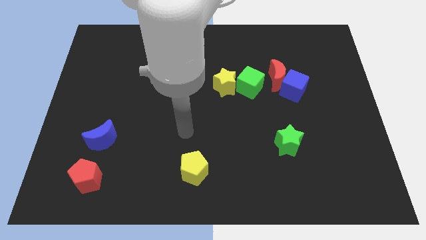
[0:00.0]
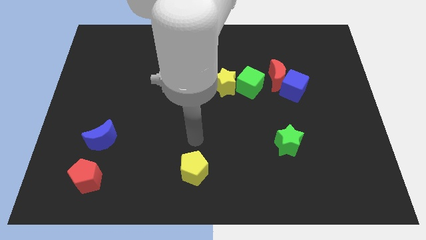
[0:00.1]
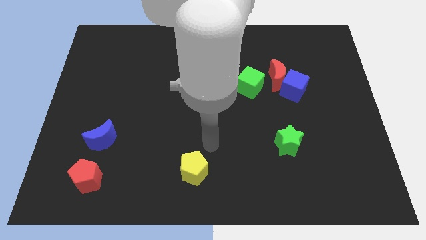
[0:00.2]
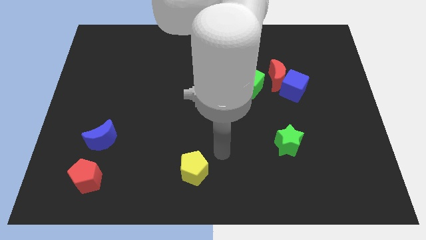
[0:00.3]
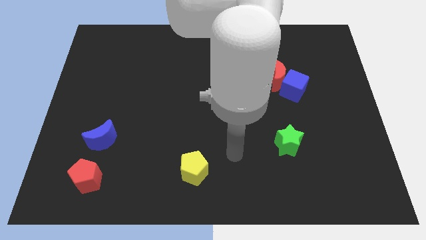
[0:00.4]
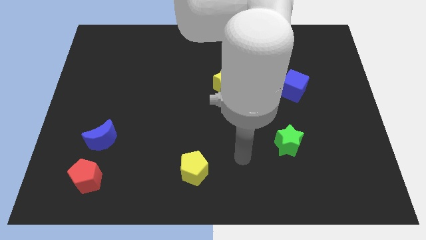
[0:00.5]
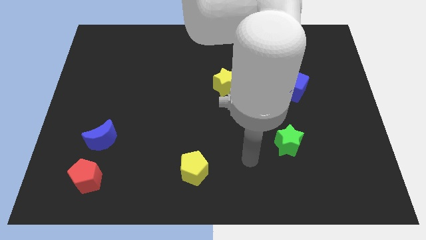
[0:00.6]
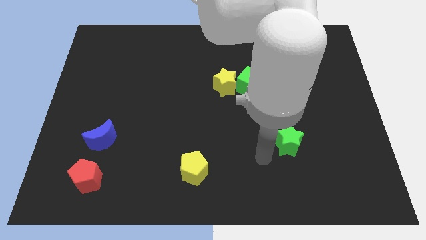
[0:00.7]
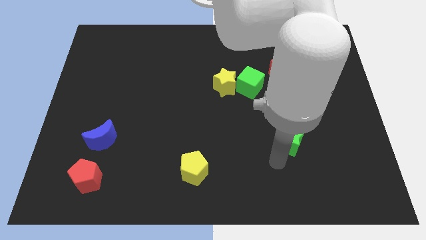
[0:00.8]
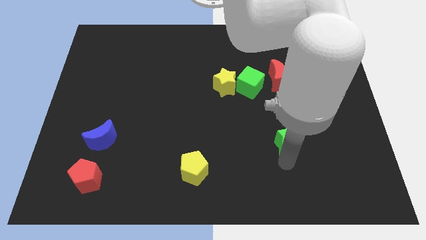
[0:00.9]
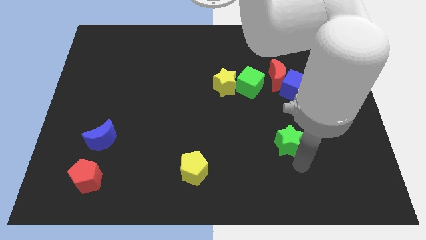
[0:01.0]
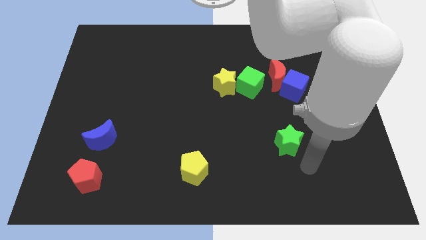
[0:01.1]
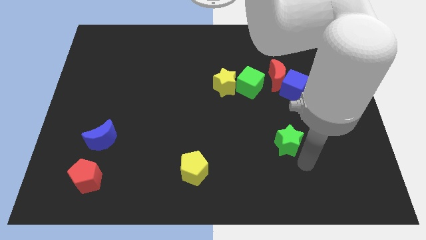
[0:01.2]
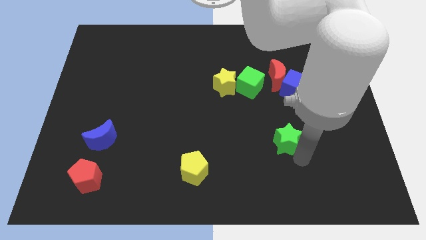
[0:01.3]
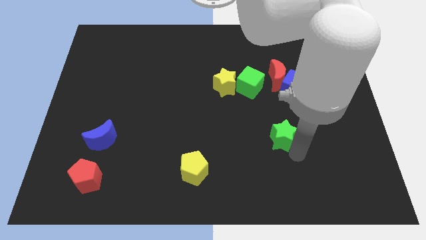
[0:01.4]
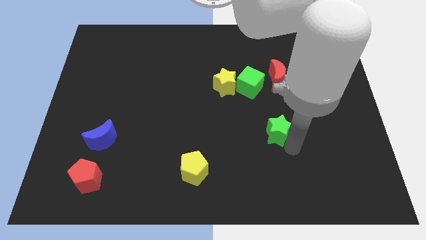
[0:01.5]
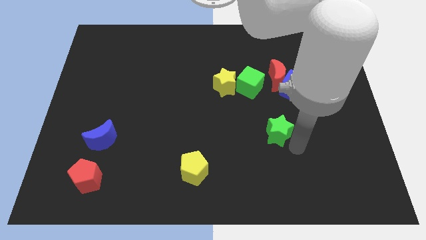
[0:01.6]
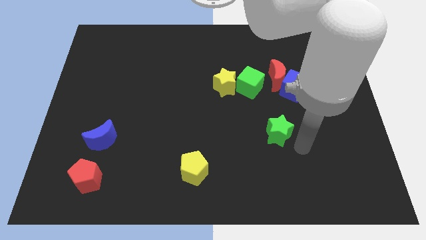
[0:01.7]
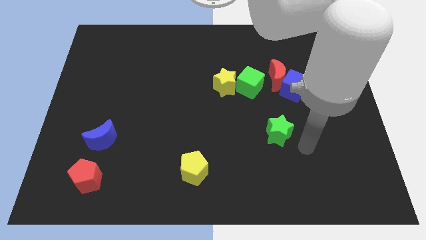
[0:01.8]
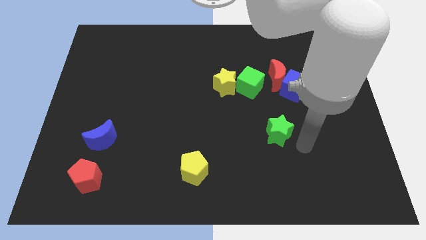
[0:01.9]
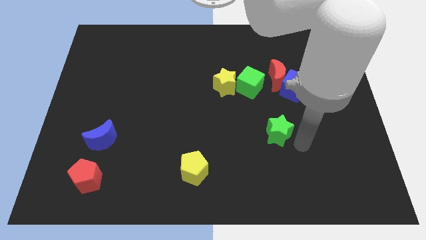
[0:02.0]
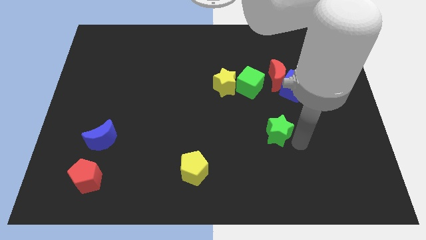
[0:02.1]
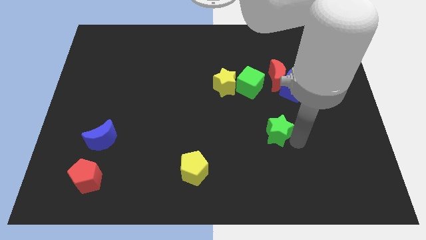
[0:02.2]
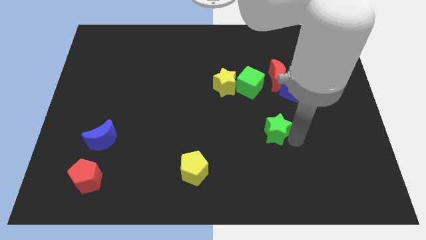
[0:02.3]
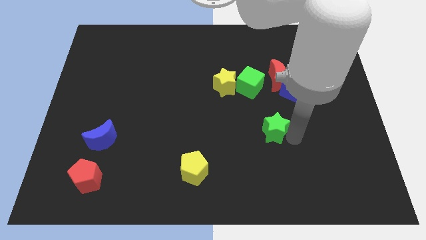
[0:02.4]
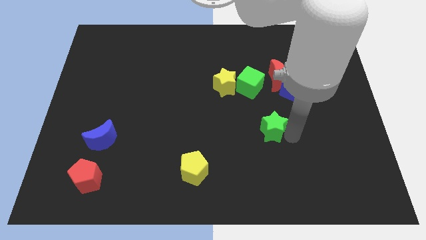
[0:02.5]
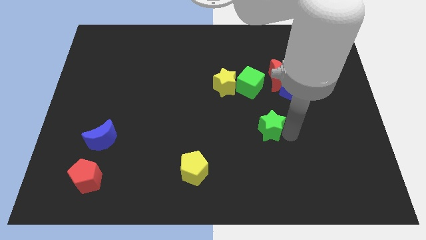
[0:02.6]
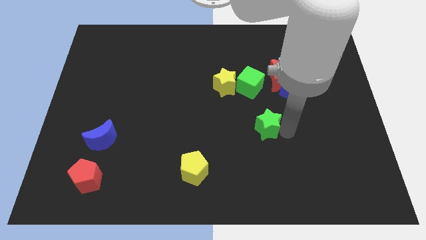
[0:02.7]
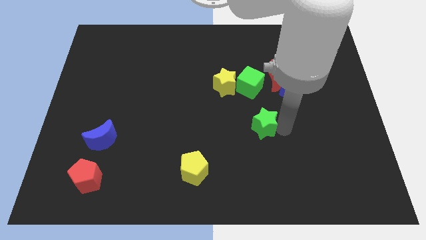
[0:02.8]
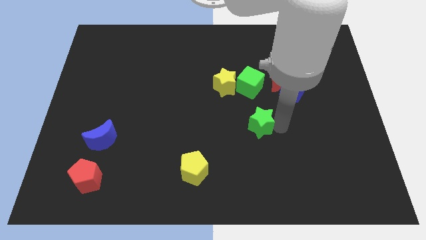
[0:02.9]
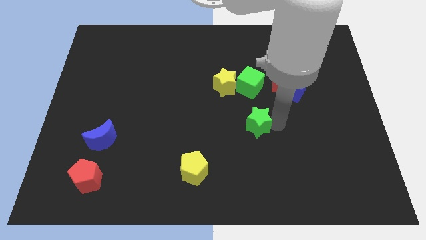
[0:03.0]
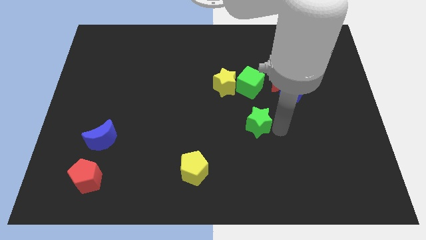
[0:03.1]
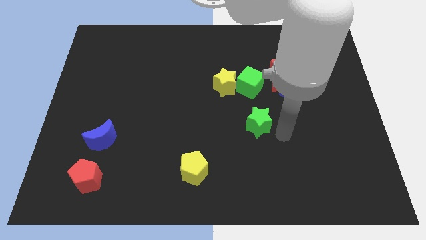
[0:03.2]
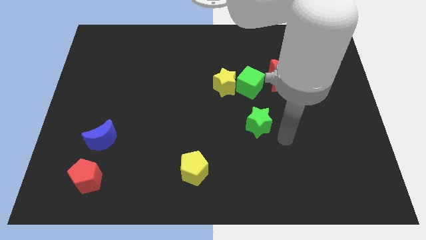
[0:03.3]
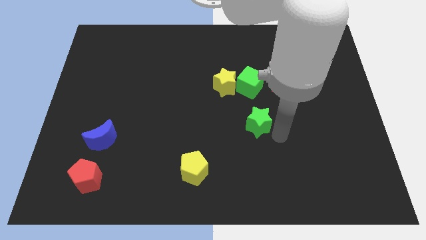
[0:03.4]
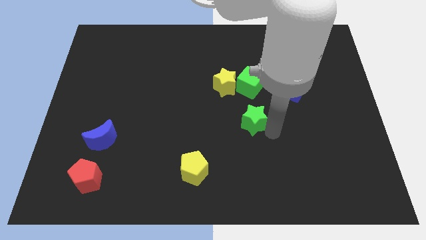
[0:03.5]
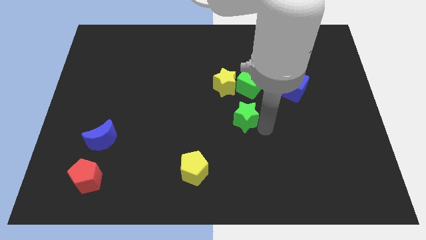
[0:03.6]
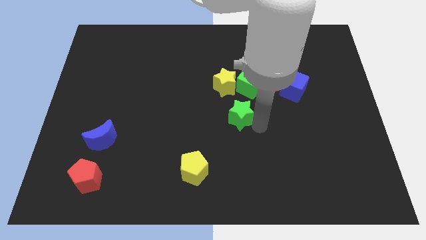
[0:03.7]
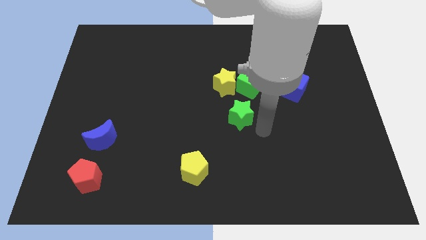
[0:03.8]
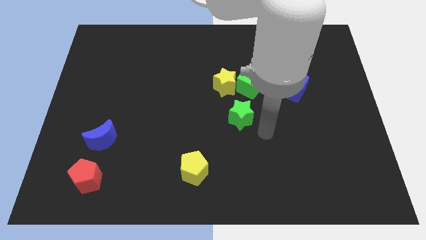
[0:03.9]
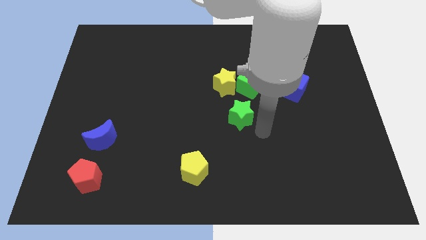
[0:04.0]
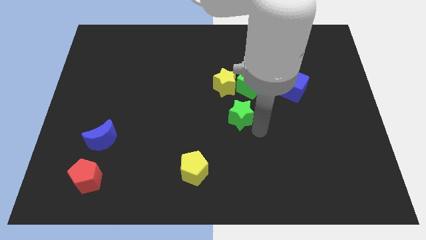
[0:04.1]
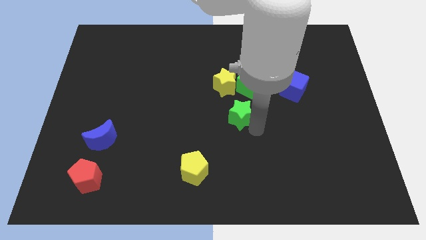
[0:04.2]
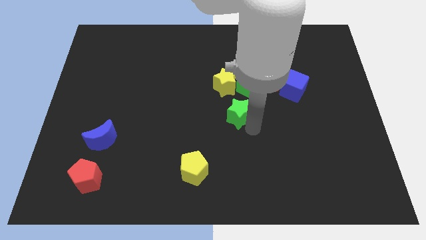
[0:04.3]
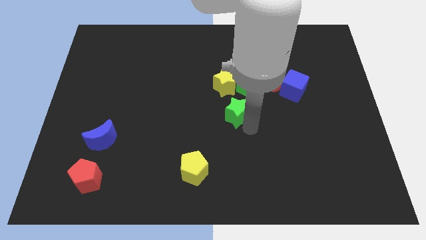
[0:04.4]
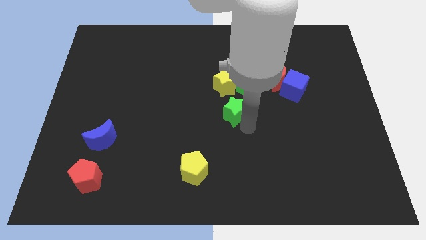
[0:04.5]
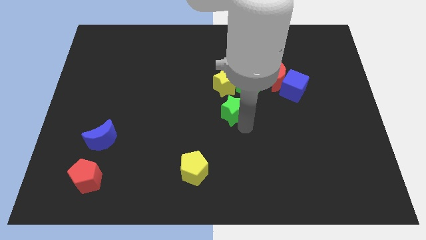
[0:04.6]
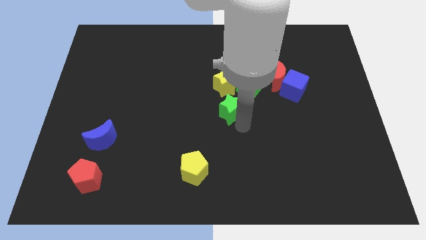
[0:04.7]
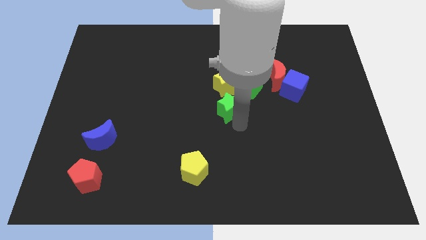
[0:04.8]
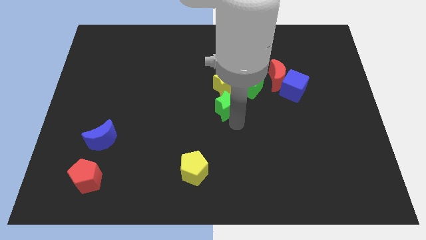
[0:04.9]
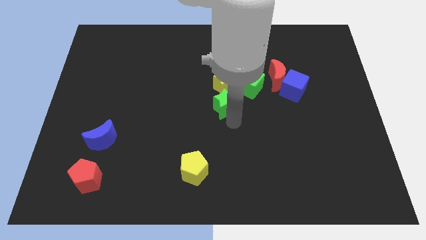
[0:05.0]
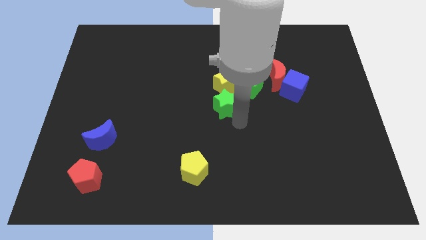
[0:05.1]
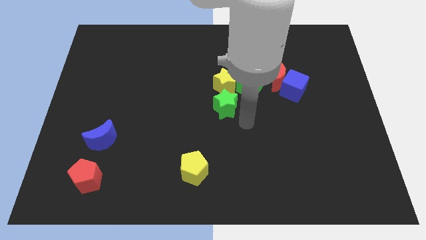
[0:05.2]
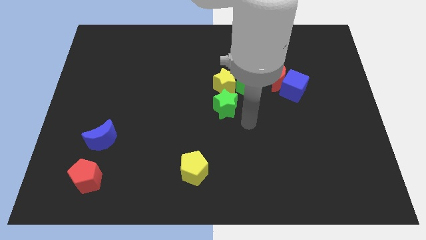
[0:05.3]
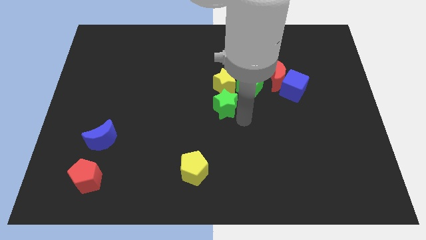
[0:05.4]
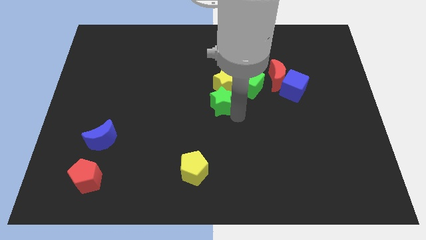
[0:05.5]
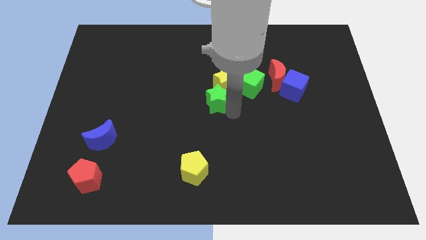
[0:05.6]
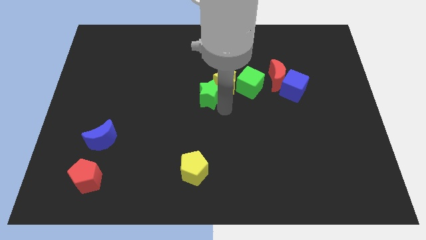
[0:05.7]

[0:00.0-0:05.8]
move the green star up and to the left

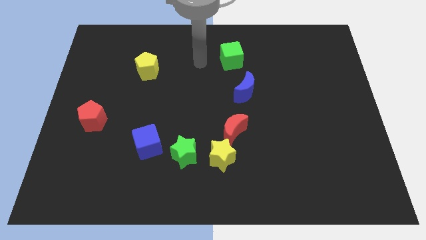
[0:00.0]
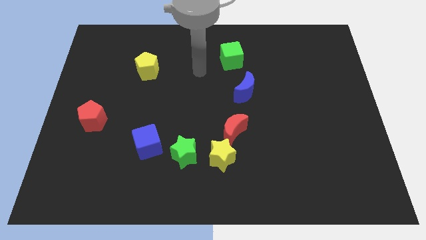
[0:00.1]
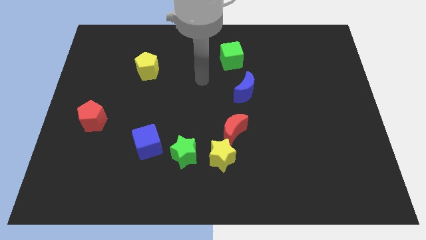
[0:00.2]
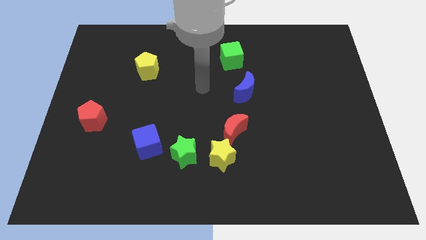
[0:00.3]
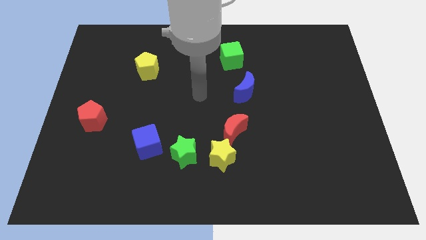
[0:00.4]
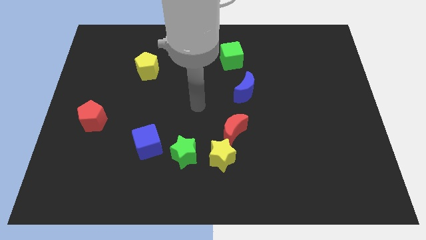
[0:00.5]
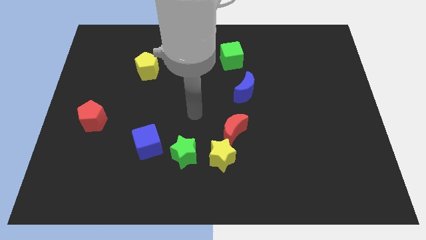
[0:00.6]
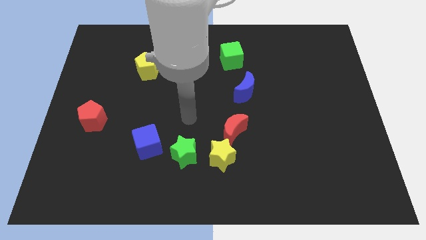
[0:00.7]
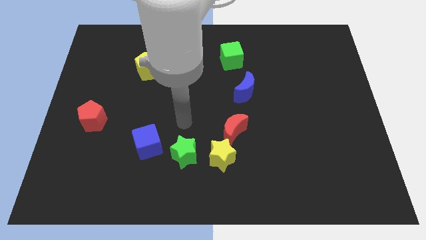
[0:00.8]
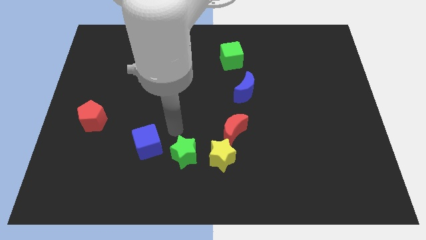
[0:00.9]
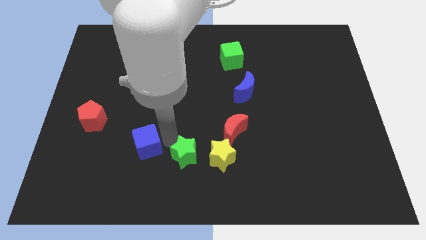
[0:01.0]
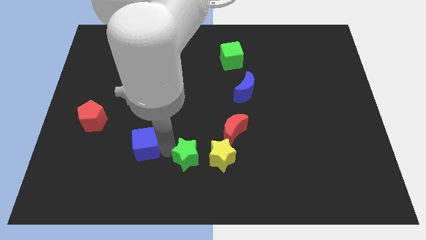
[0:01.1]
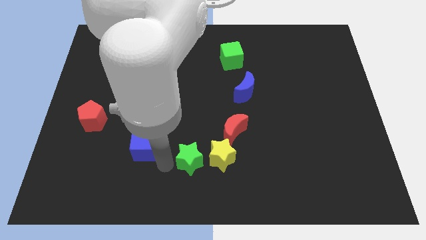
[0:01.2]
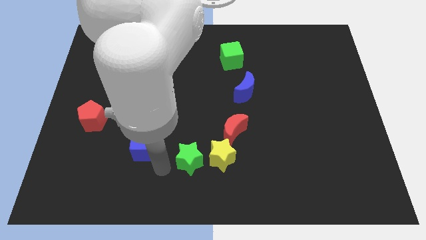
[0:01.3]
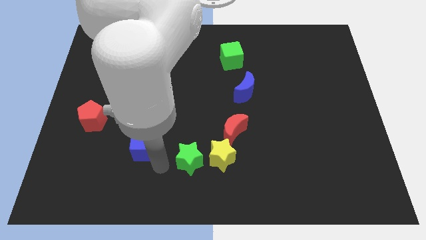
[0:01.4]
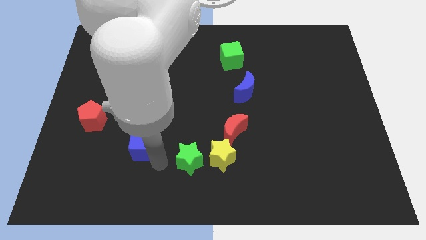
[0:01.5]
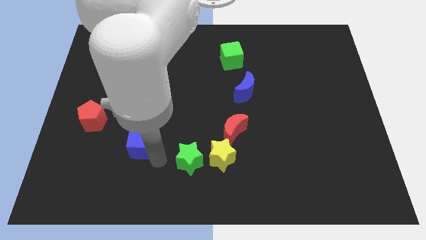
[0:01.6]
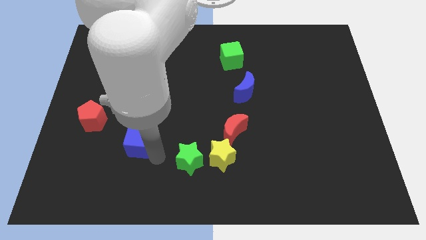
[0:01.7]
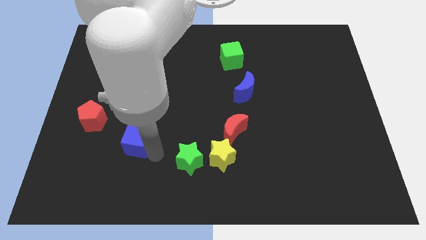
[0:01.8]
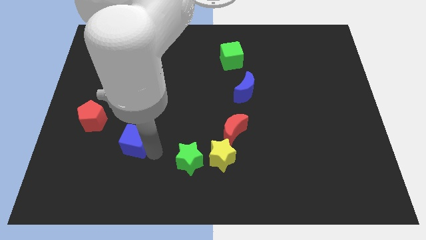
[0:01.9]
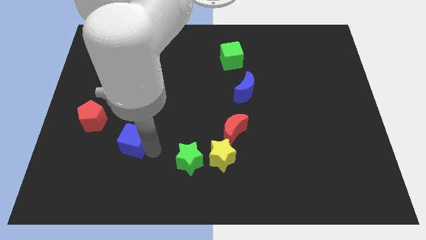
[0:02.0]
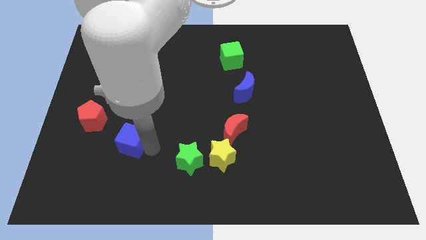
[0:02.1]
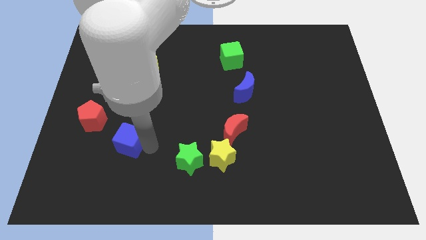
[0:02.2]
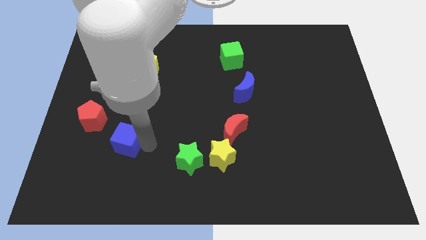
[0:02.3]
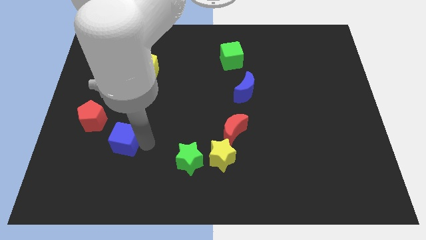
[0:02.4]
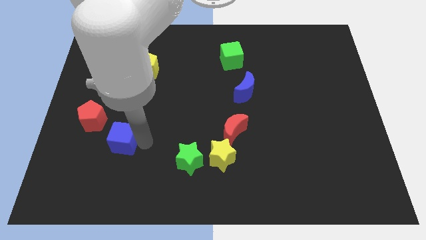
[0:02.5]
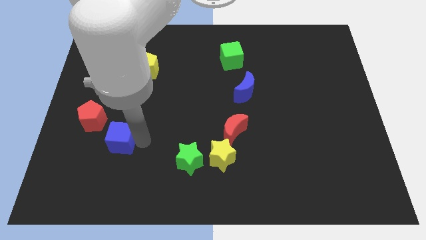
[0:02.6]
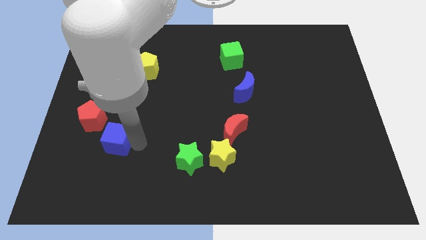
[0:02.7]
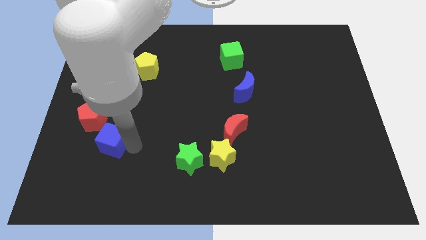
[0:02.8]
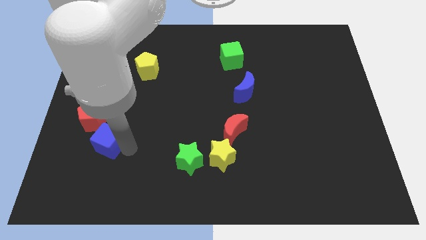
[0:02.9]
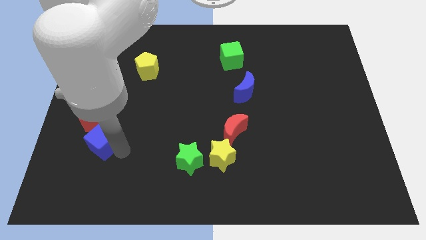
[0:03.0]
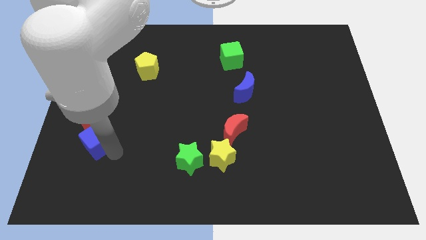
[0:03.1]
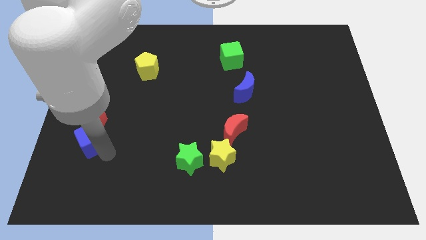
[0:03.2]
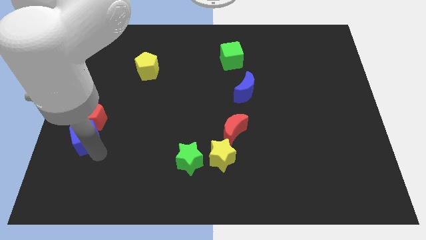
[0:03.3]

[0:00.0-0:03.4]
push the blue cube diagonally upwards and left slightly
